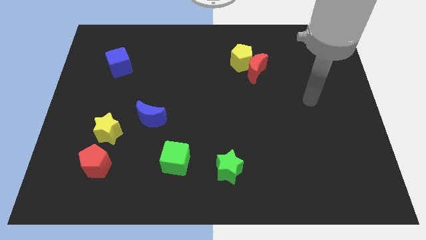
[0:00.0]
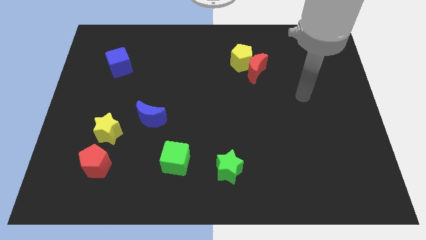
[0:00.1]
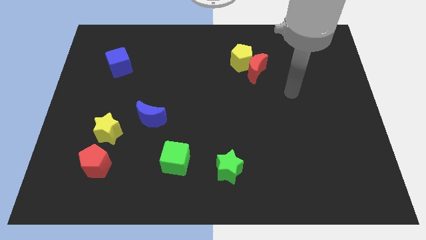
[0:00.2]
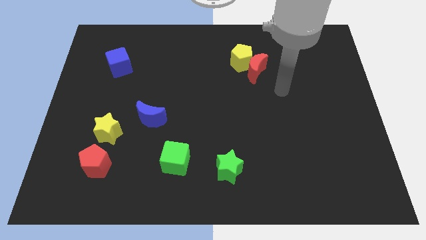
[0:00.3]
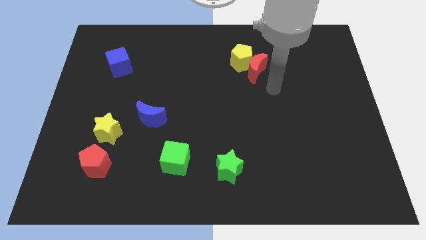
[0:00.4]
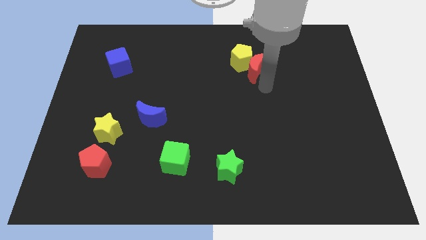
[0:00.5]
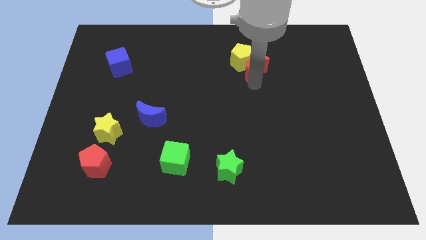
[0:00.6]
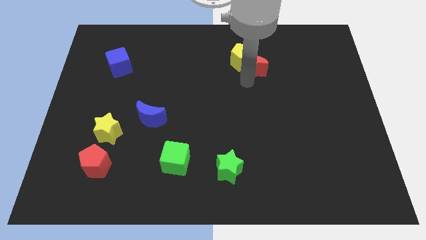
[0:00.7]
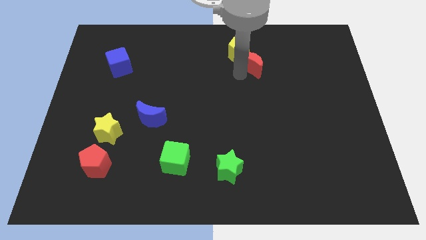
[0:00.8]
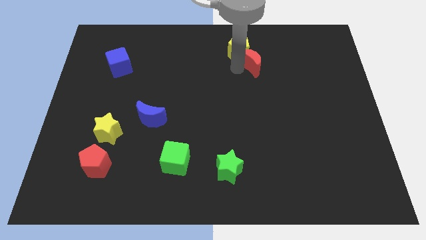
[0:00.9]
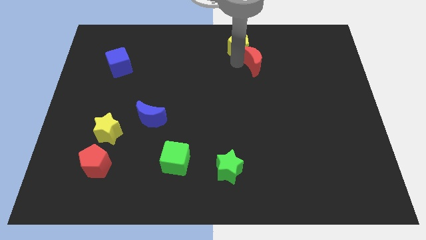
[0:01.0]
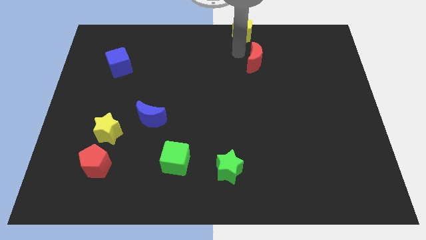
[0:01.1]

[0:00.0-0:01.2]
pull the red moon apart from the yellow pentagon

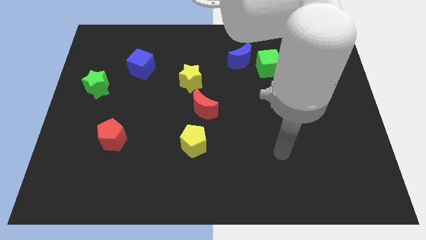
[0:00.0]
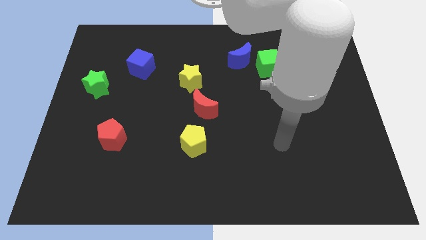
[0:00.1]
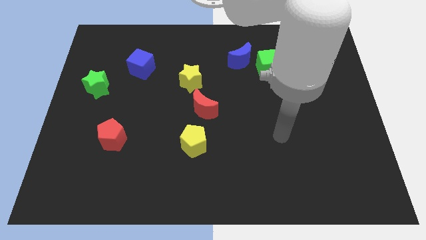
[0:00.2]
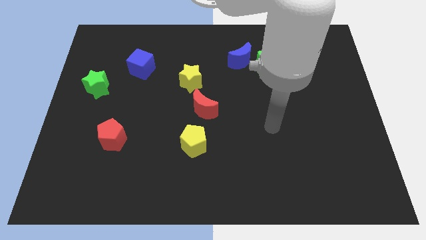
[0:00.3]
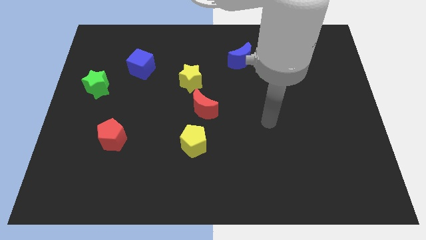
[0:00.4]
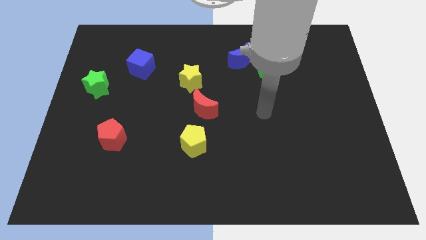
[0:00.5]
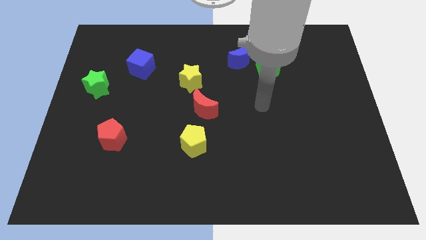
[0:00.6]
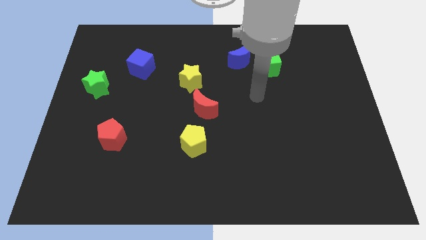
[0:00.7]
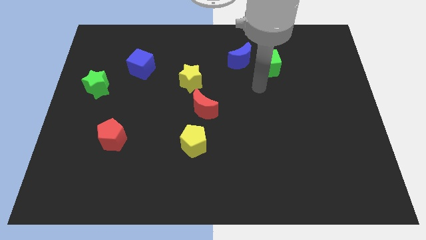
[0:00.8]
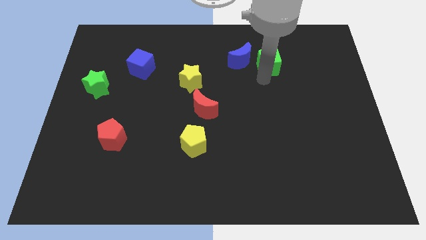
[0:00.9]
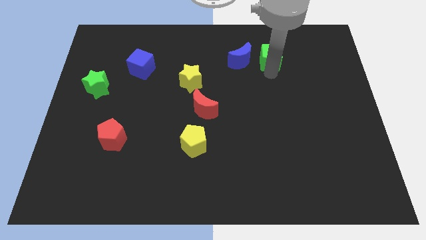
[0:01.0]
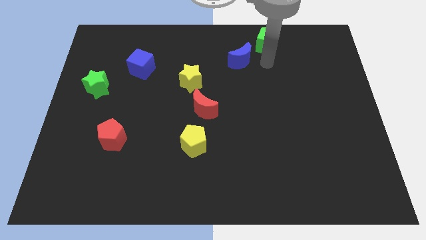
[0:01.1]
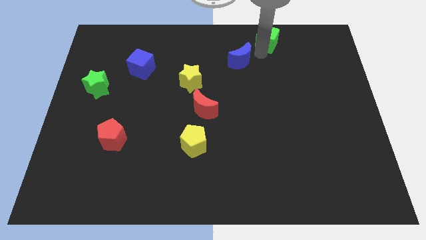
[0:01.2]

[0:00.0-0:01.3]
move the blue moon away from the green cube

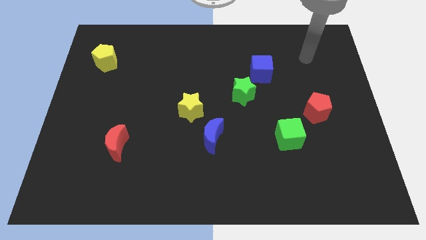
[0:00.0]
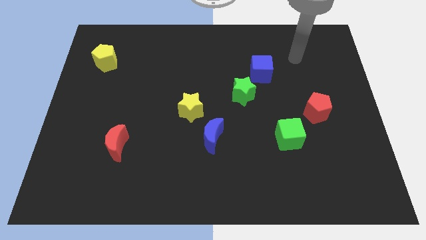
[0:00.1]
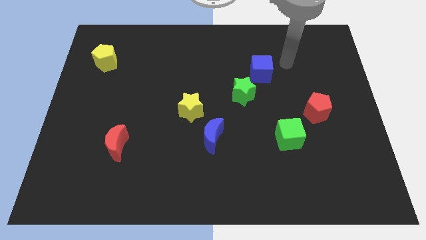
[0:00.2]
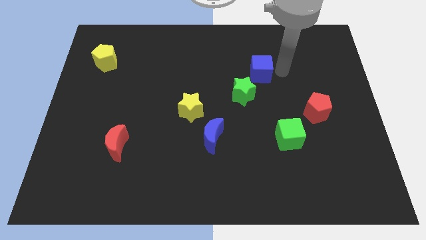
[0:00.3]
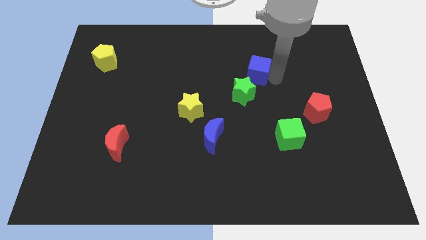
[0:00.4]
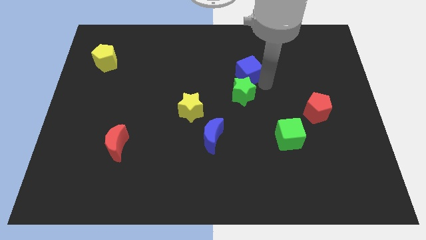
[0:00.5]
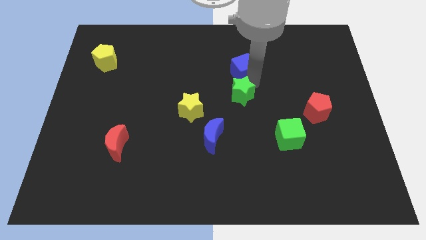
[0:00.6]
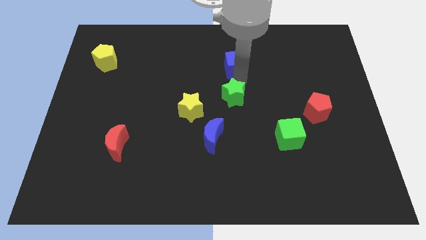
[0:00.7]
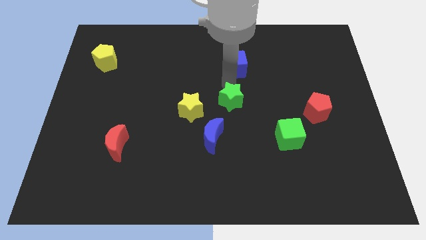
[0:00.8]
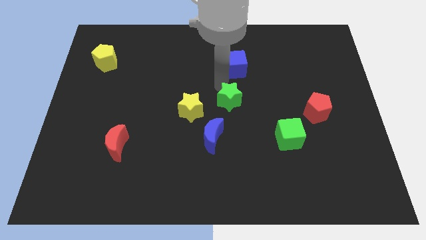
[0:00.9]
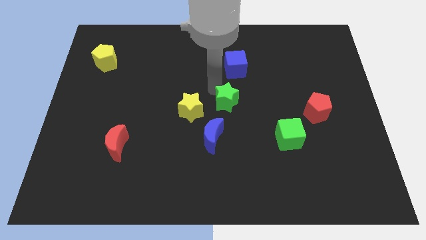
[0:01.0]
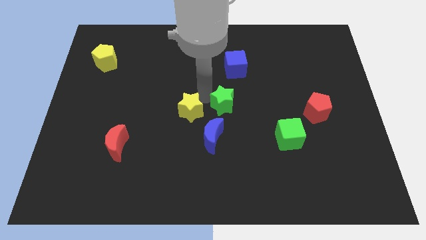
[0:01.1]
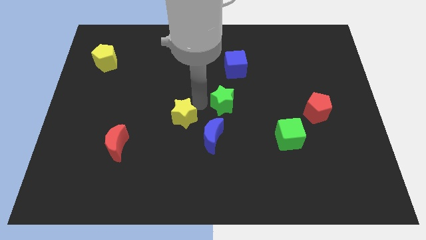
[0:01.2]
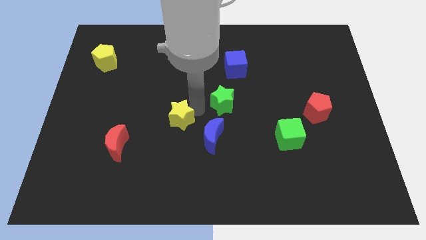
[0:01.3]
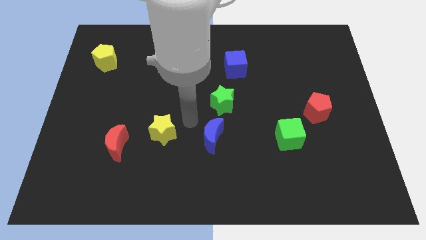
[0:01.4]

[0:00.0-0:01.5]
move the blue moon away from the yellow star

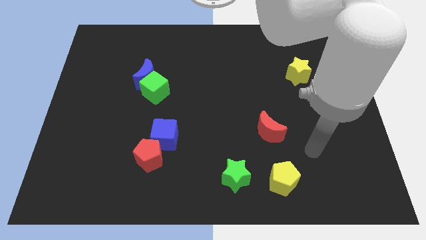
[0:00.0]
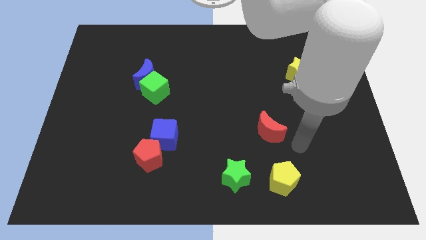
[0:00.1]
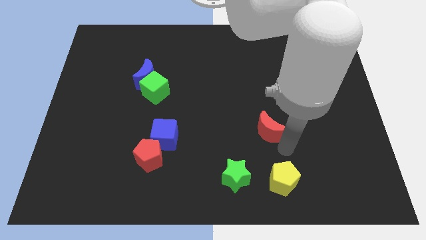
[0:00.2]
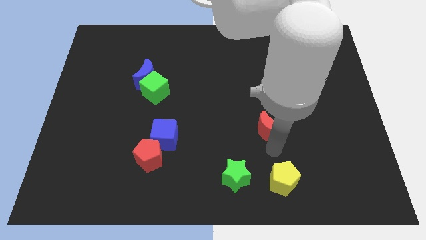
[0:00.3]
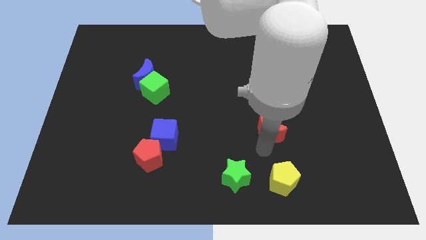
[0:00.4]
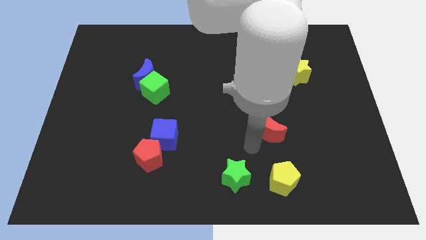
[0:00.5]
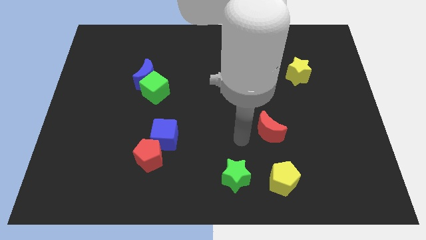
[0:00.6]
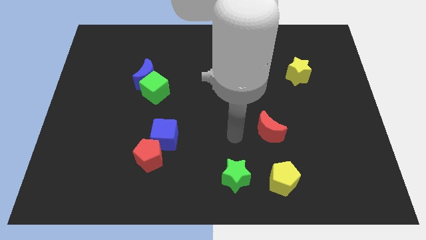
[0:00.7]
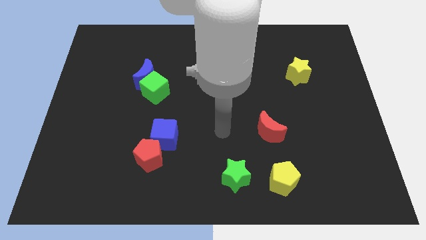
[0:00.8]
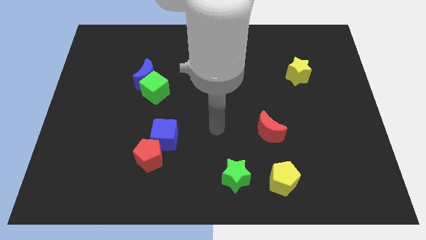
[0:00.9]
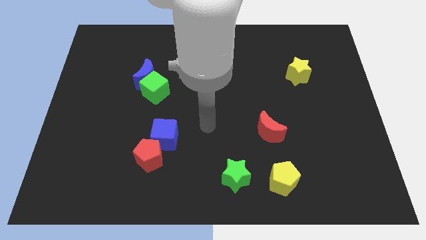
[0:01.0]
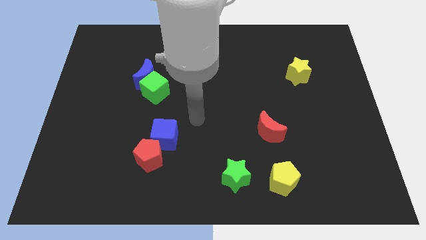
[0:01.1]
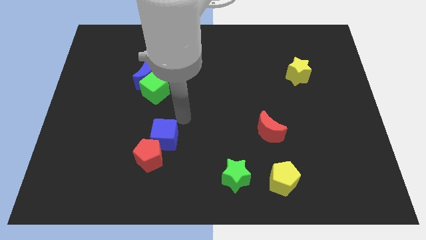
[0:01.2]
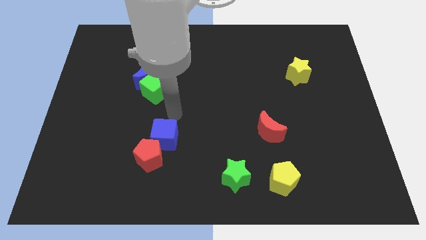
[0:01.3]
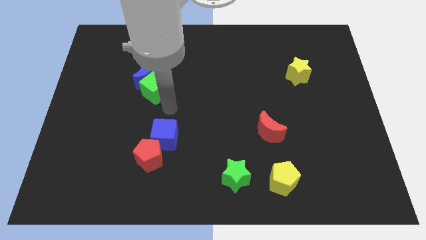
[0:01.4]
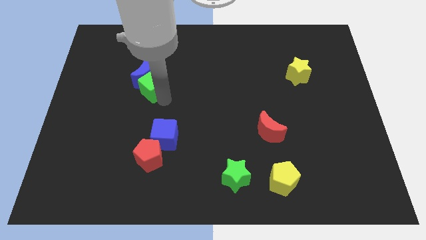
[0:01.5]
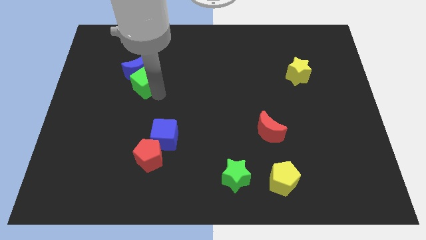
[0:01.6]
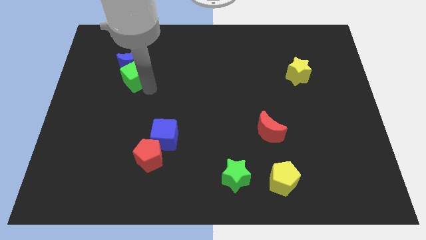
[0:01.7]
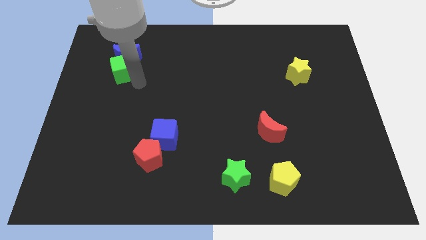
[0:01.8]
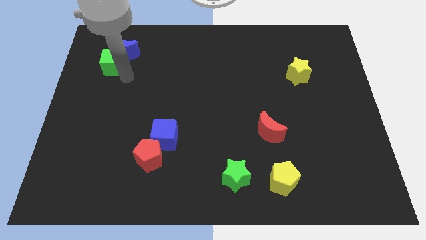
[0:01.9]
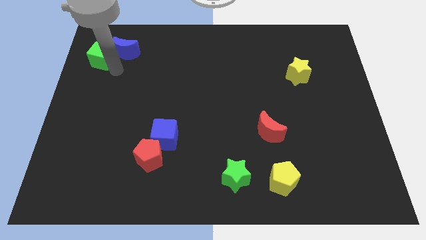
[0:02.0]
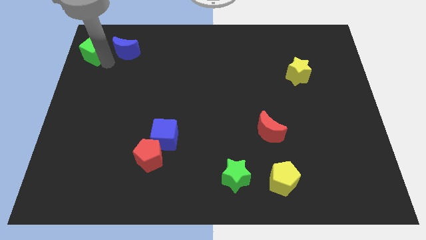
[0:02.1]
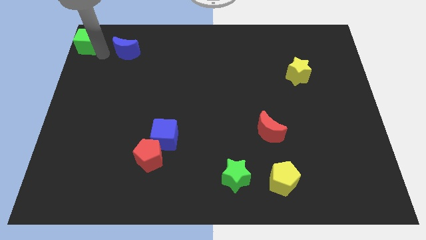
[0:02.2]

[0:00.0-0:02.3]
separate the blue moon from the green cube

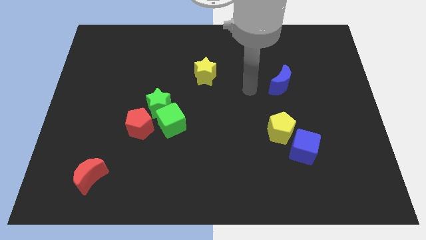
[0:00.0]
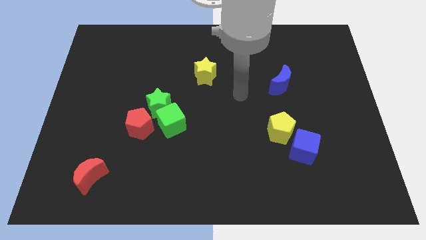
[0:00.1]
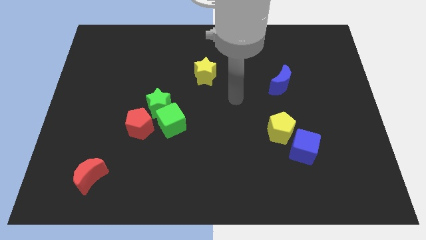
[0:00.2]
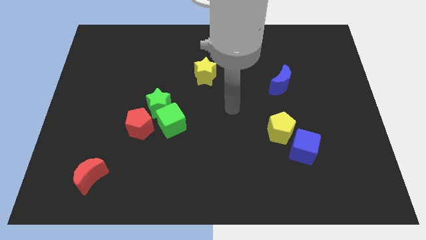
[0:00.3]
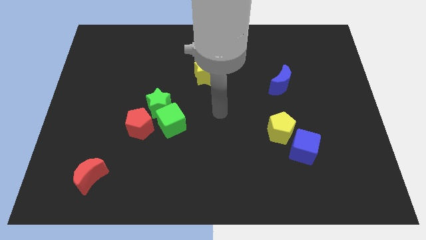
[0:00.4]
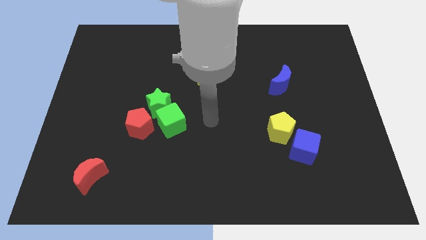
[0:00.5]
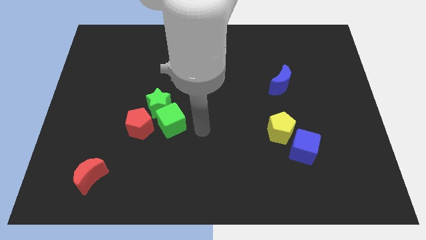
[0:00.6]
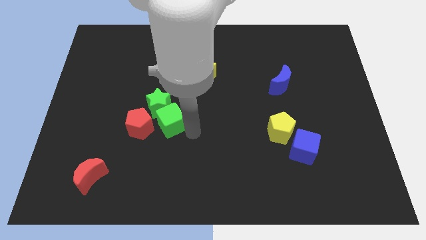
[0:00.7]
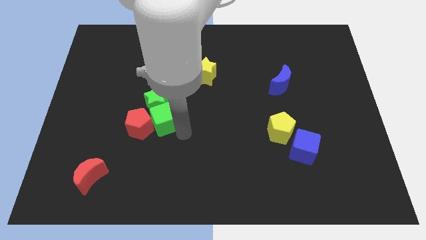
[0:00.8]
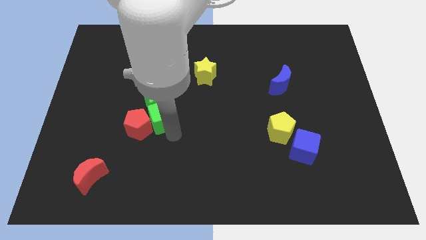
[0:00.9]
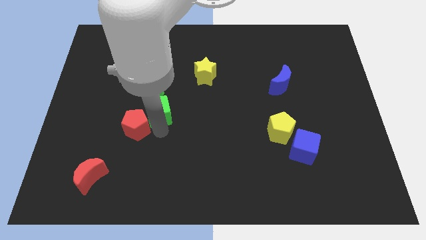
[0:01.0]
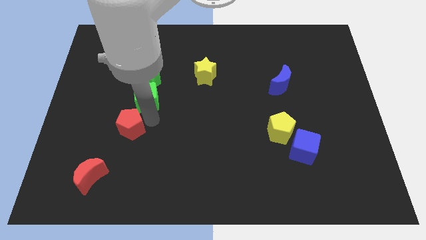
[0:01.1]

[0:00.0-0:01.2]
move the green star away from the green cube and red pentagon

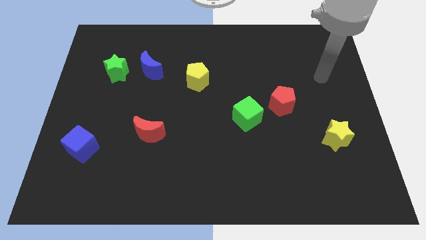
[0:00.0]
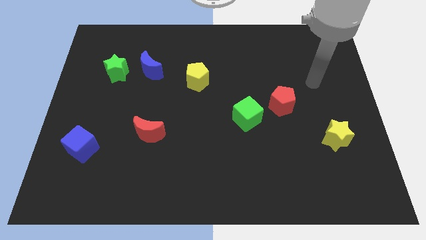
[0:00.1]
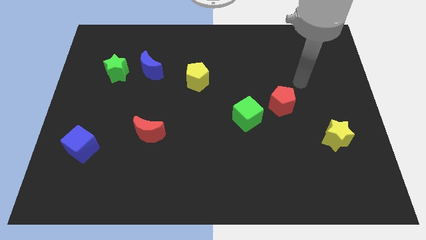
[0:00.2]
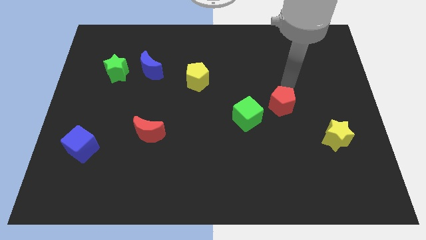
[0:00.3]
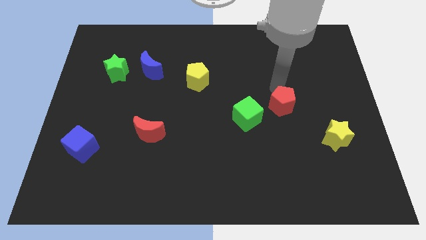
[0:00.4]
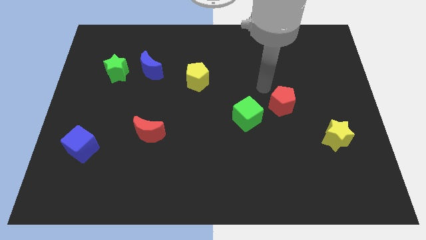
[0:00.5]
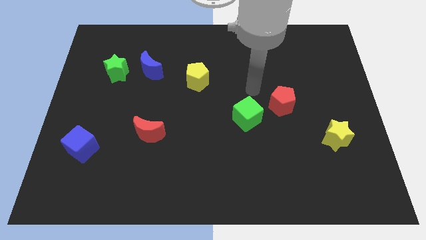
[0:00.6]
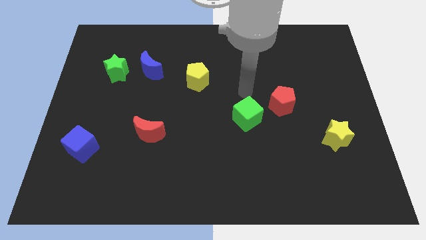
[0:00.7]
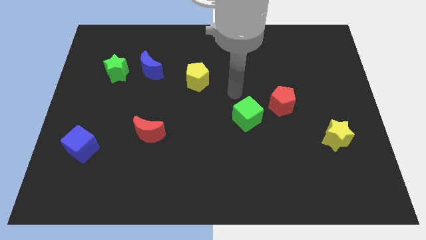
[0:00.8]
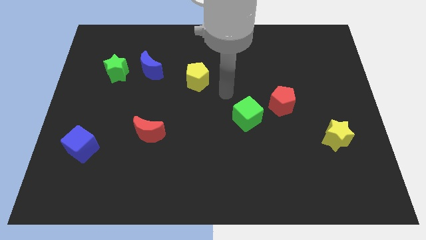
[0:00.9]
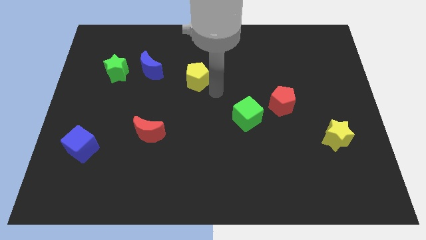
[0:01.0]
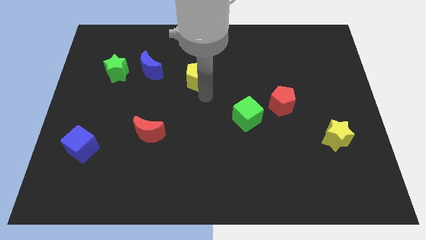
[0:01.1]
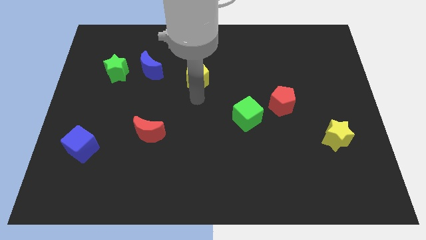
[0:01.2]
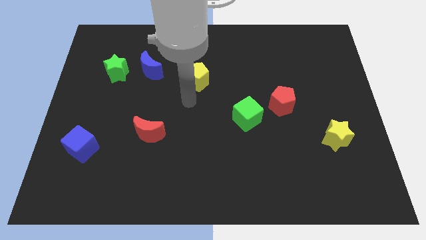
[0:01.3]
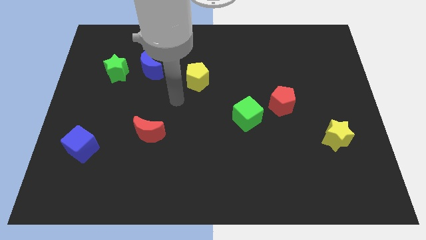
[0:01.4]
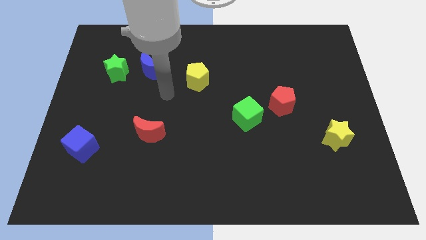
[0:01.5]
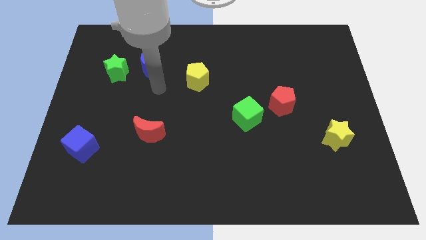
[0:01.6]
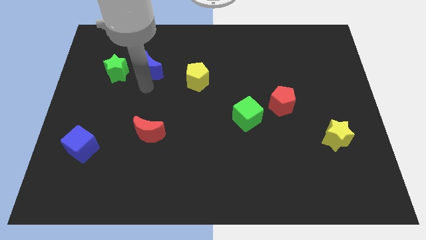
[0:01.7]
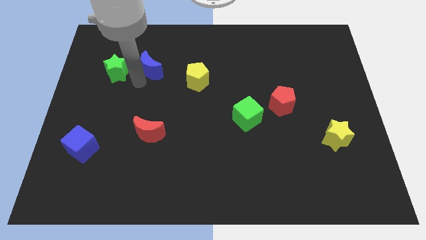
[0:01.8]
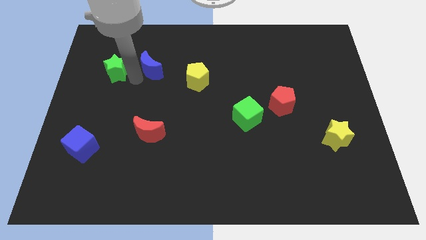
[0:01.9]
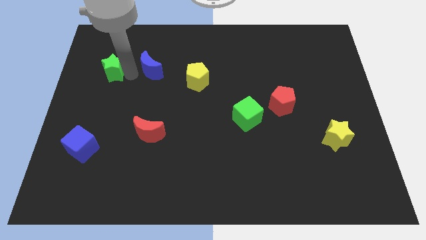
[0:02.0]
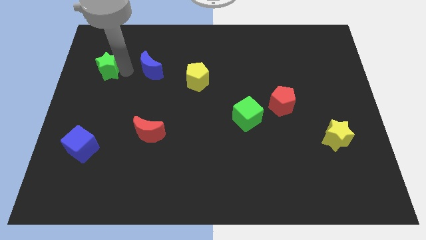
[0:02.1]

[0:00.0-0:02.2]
separate the blue moon from the green star
